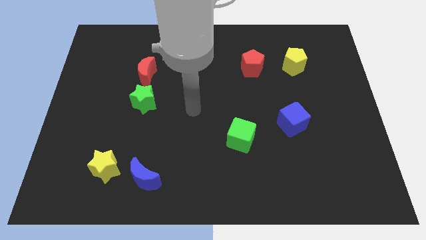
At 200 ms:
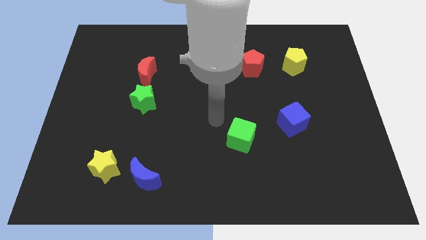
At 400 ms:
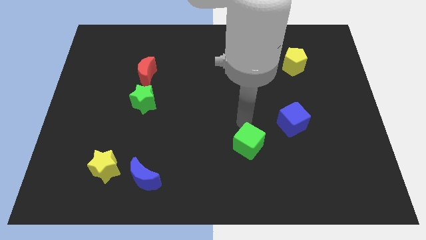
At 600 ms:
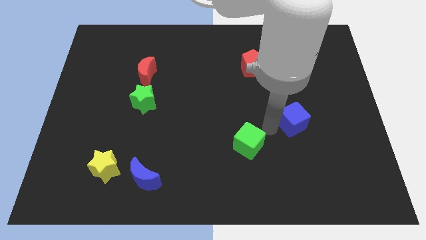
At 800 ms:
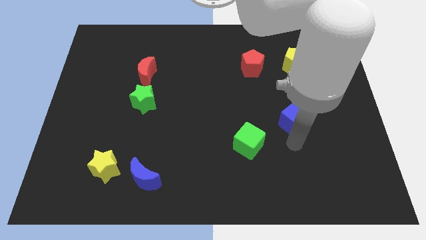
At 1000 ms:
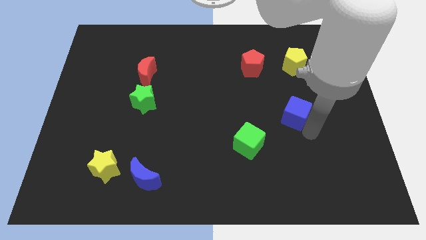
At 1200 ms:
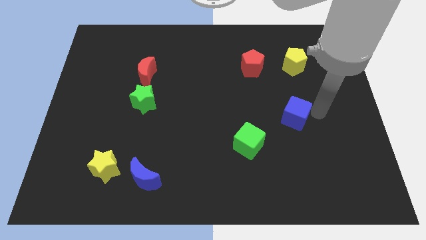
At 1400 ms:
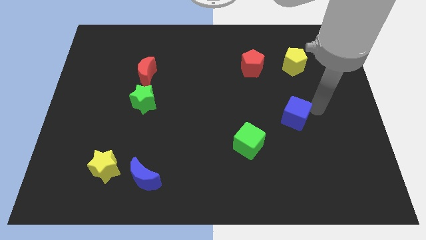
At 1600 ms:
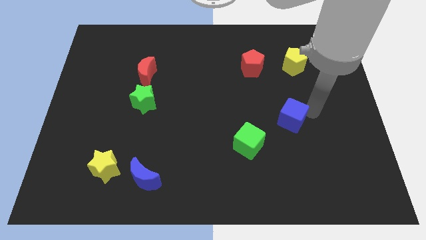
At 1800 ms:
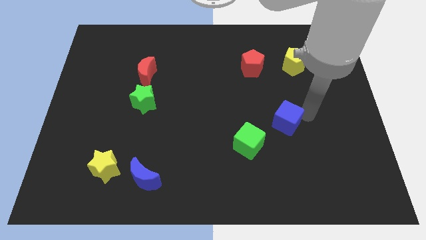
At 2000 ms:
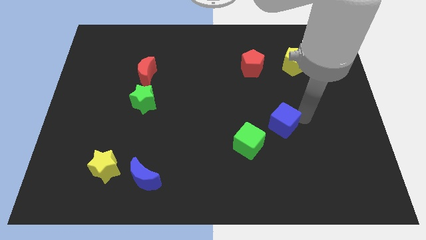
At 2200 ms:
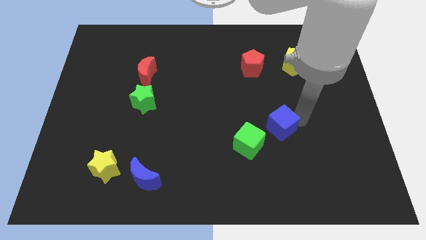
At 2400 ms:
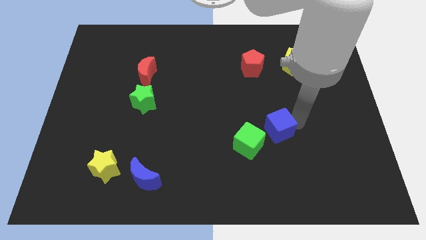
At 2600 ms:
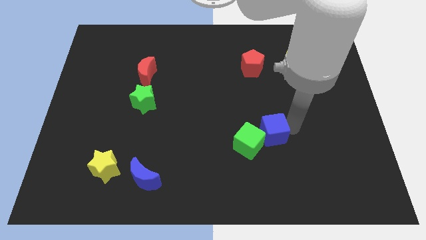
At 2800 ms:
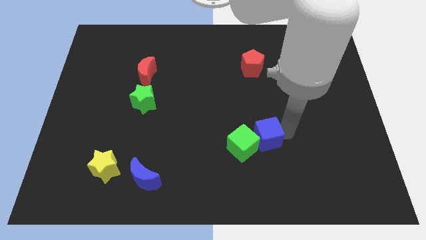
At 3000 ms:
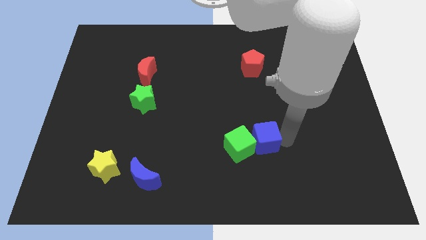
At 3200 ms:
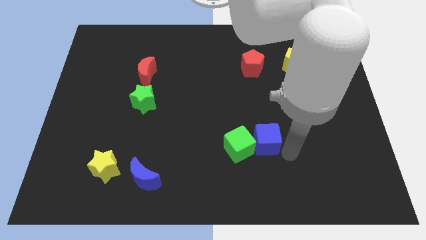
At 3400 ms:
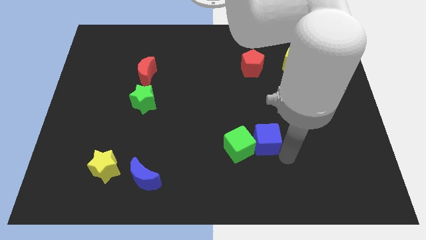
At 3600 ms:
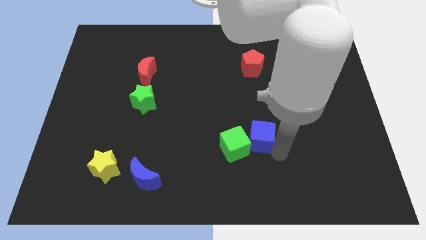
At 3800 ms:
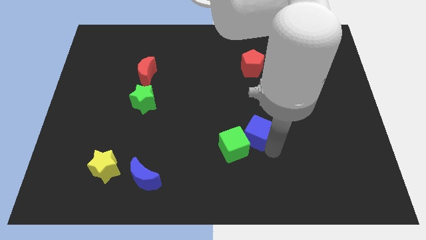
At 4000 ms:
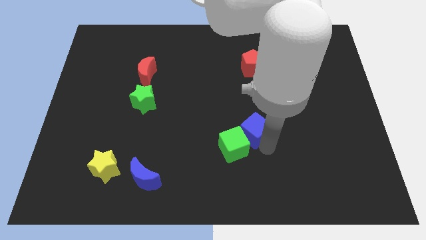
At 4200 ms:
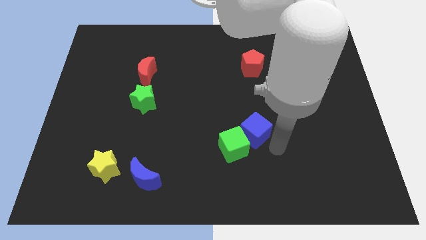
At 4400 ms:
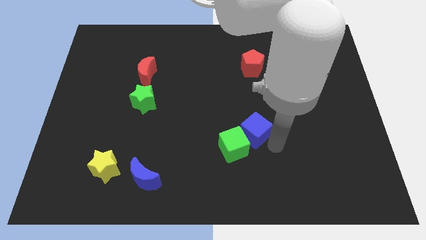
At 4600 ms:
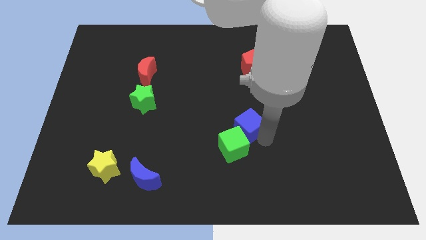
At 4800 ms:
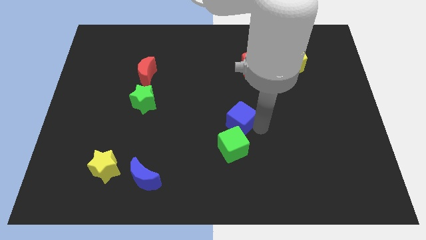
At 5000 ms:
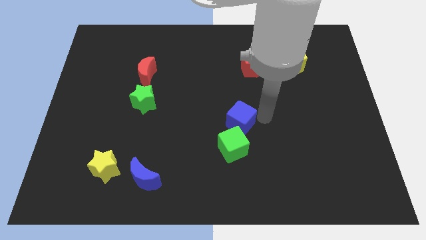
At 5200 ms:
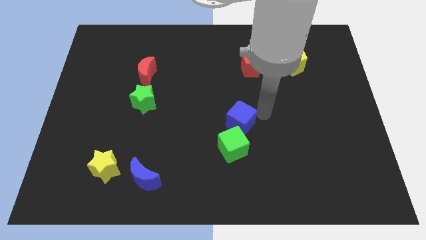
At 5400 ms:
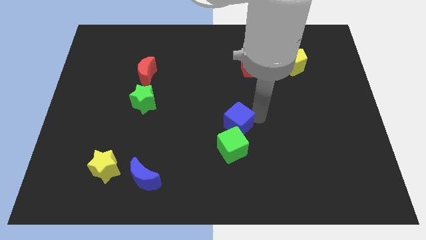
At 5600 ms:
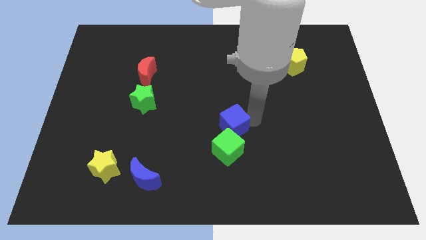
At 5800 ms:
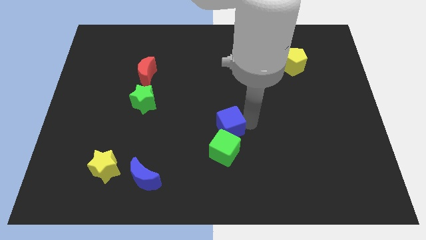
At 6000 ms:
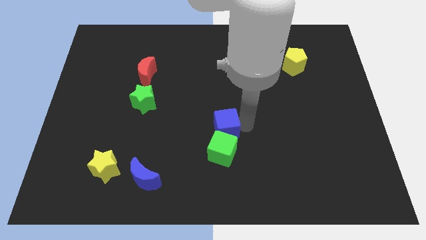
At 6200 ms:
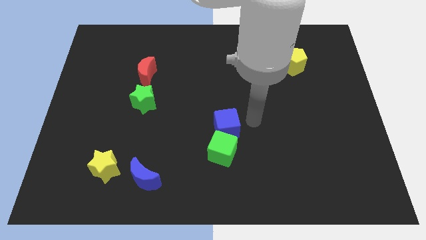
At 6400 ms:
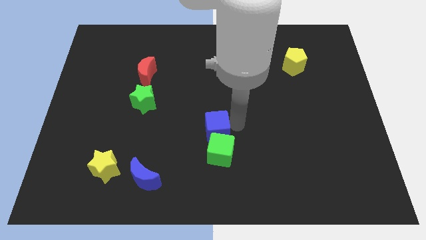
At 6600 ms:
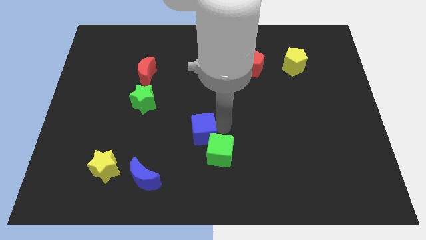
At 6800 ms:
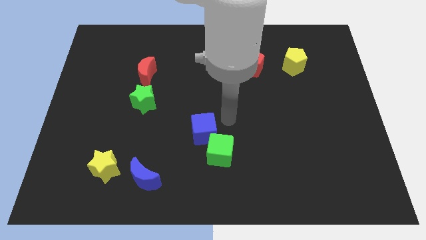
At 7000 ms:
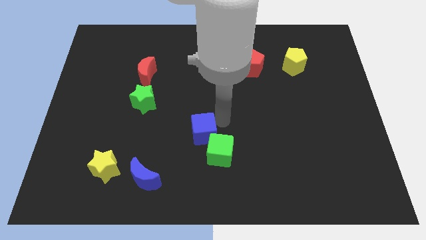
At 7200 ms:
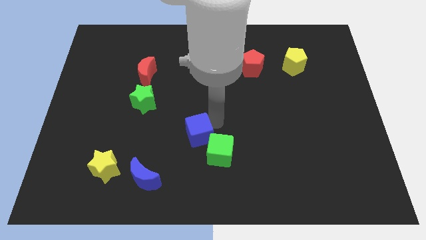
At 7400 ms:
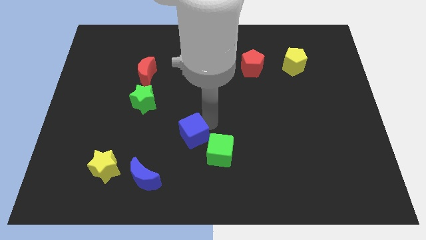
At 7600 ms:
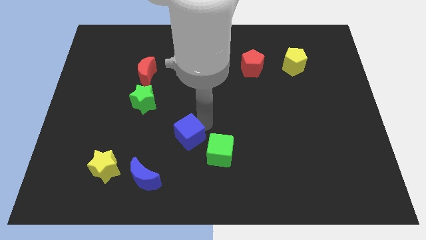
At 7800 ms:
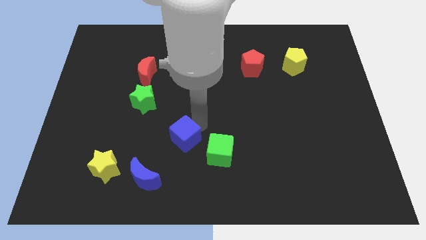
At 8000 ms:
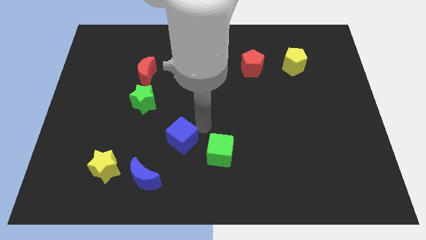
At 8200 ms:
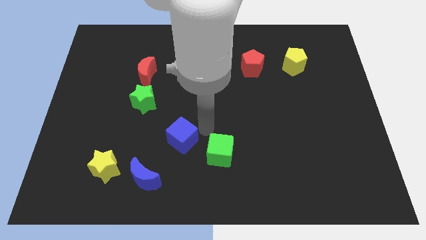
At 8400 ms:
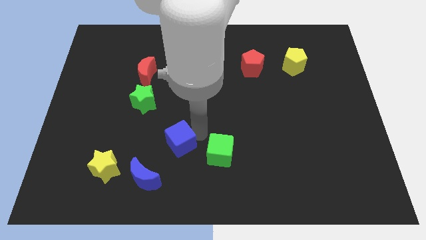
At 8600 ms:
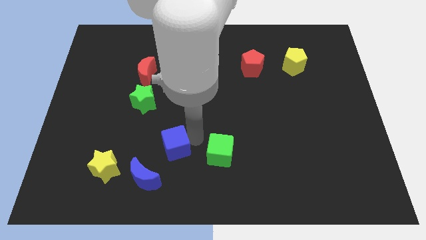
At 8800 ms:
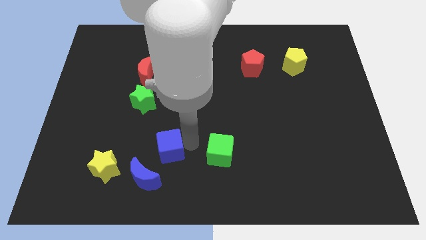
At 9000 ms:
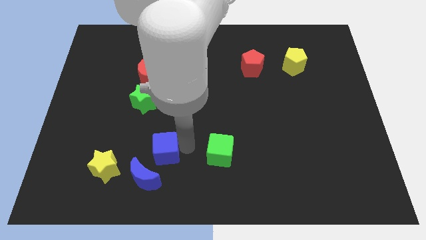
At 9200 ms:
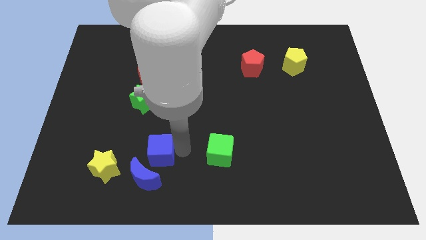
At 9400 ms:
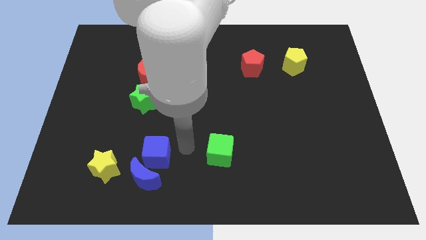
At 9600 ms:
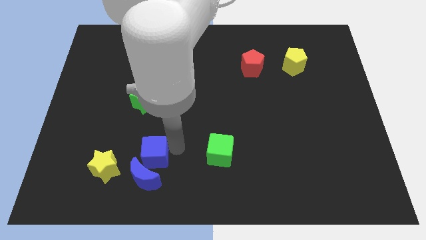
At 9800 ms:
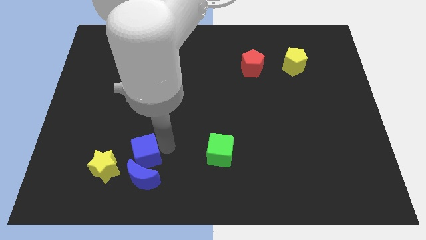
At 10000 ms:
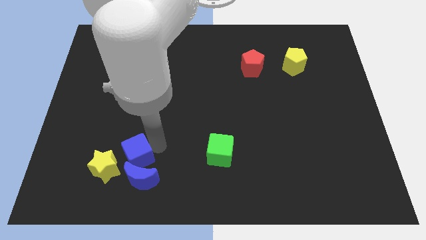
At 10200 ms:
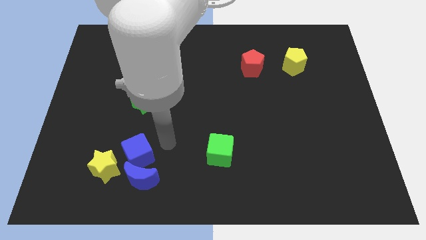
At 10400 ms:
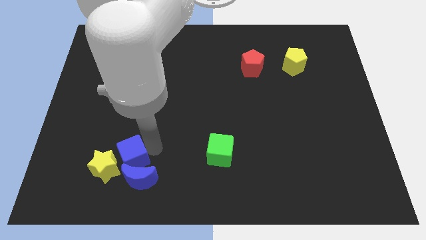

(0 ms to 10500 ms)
move the blue cube close to the yellow star

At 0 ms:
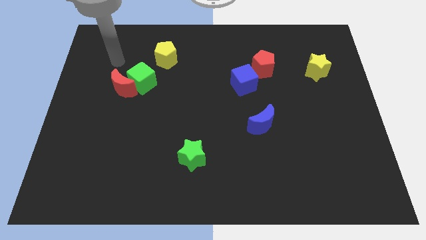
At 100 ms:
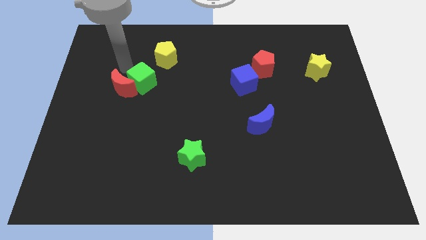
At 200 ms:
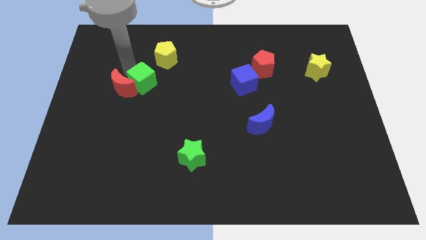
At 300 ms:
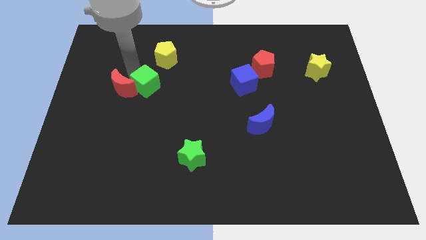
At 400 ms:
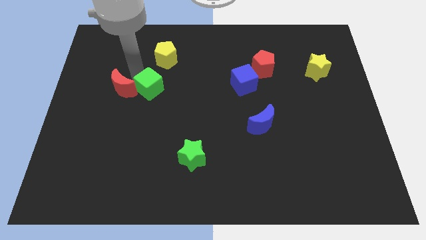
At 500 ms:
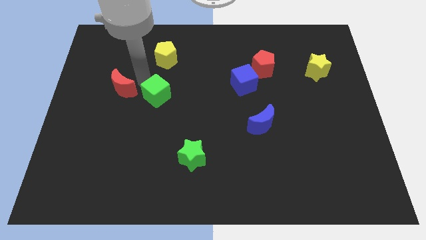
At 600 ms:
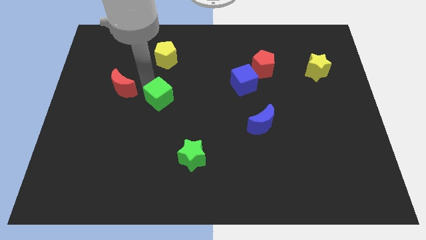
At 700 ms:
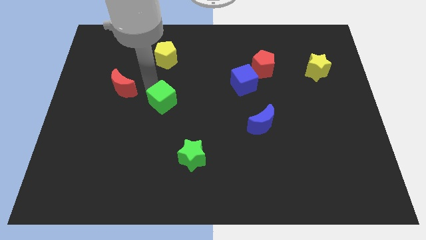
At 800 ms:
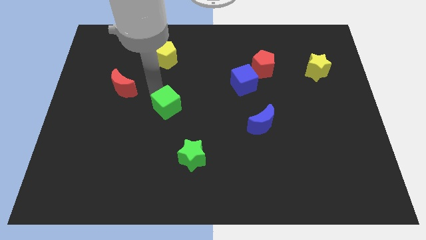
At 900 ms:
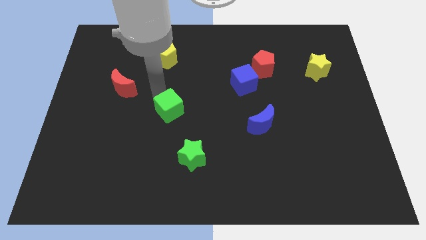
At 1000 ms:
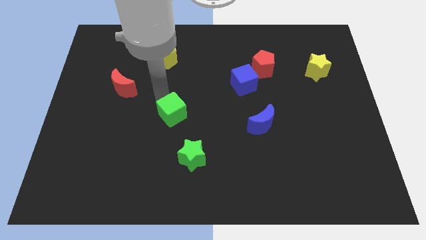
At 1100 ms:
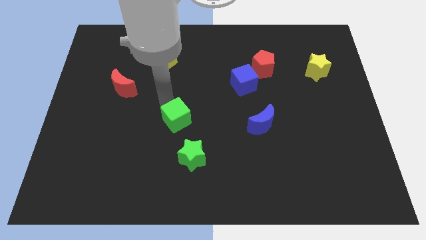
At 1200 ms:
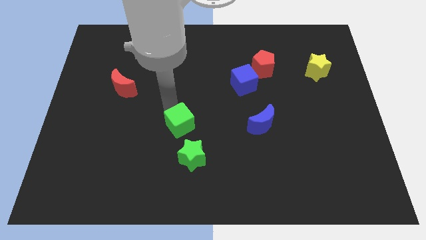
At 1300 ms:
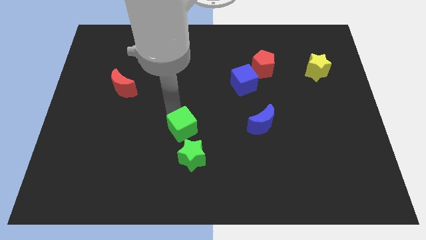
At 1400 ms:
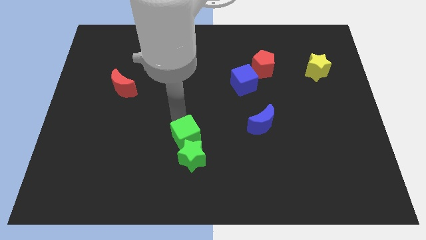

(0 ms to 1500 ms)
slide the green cube next to the green star
